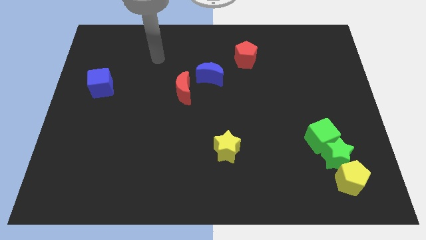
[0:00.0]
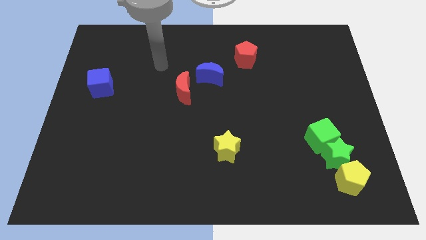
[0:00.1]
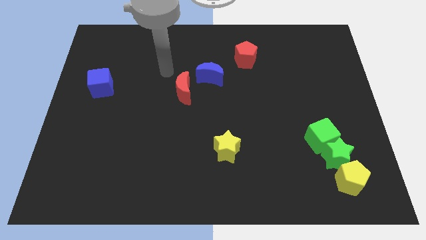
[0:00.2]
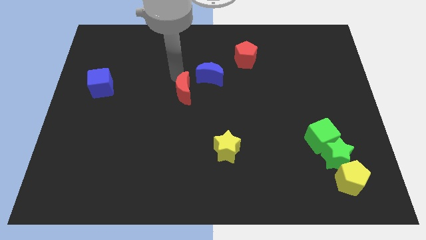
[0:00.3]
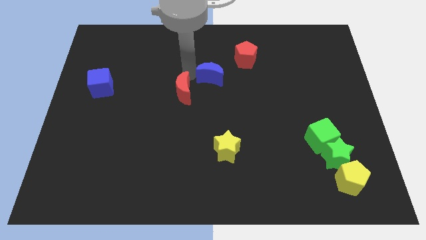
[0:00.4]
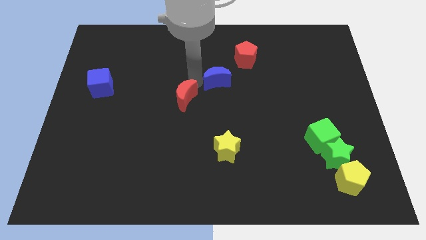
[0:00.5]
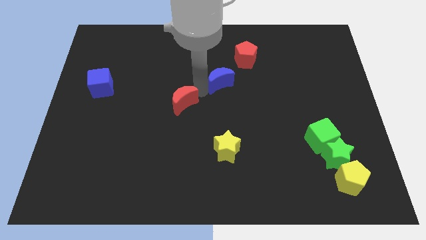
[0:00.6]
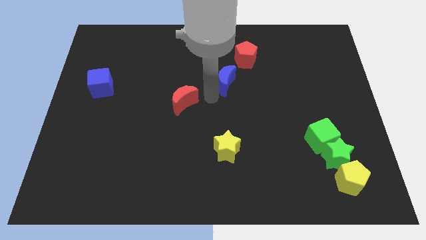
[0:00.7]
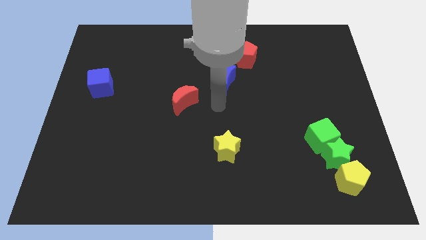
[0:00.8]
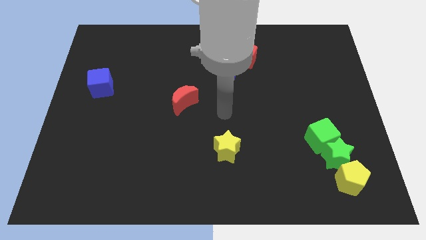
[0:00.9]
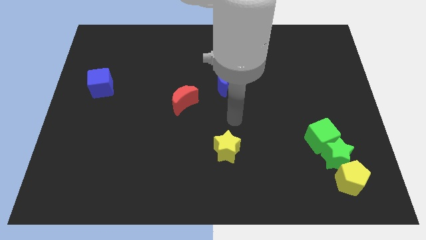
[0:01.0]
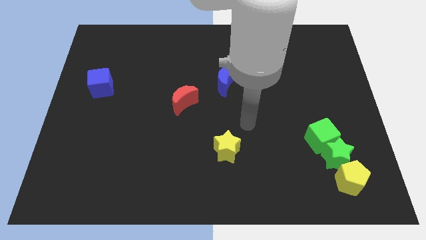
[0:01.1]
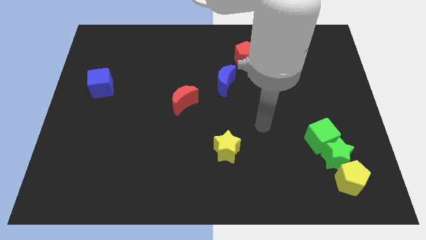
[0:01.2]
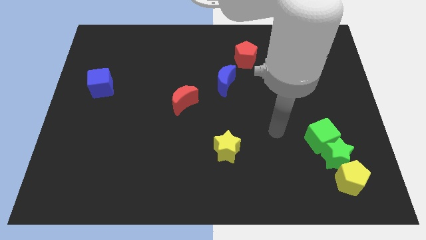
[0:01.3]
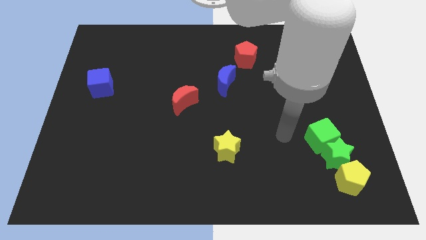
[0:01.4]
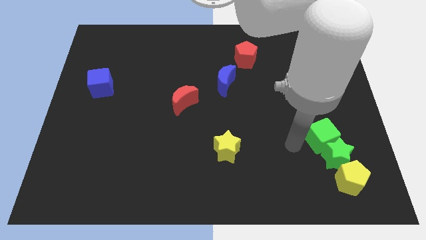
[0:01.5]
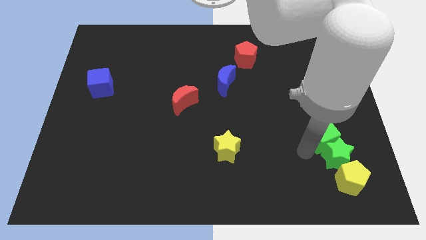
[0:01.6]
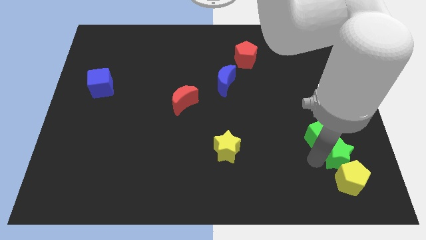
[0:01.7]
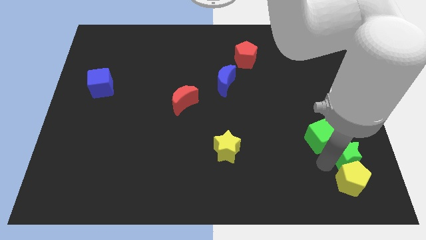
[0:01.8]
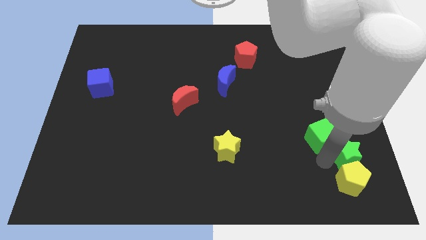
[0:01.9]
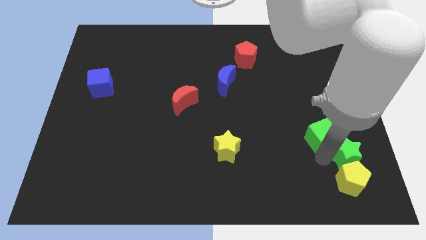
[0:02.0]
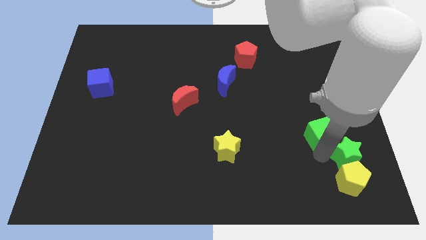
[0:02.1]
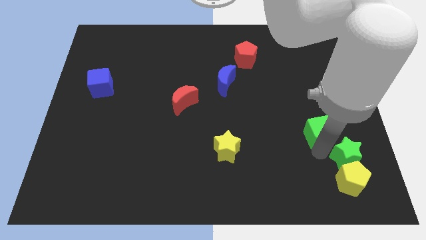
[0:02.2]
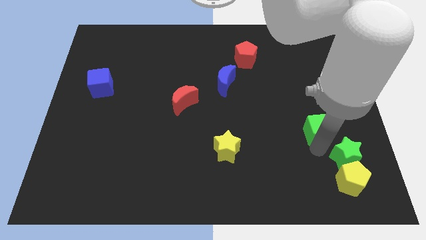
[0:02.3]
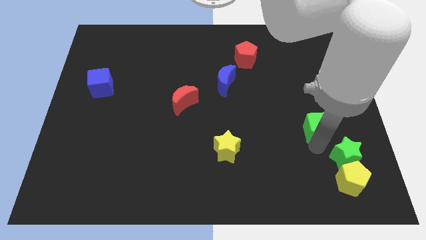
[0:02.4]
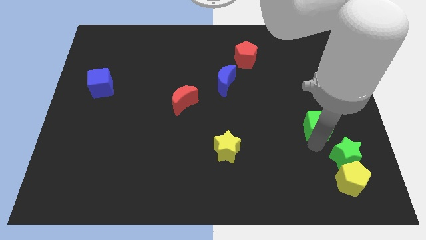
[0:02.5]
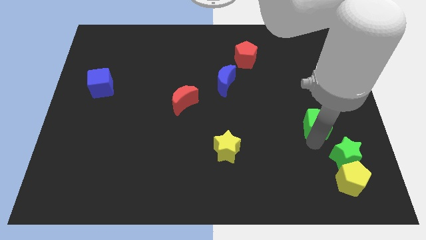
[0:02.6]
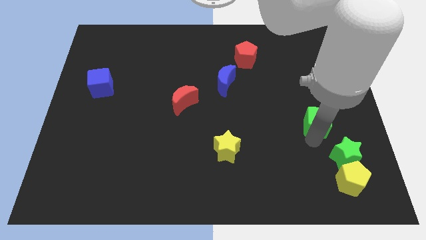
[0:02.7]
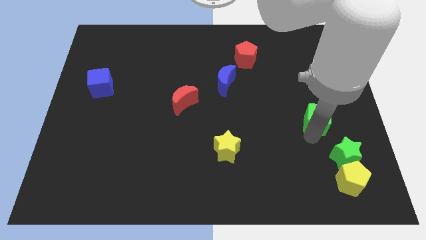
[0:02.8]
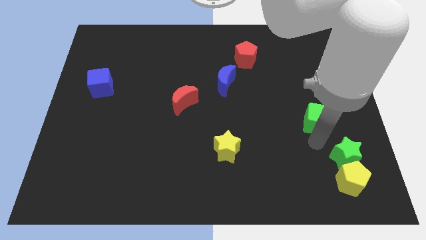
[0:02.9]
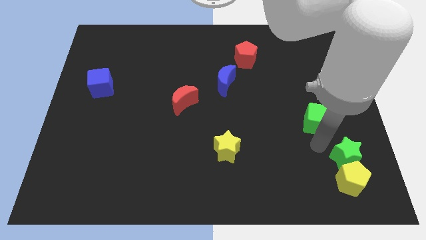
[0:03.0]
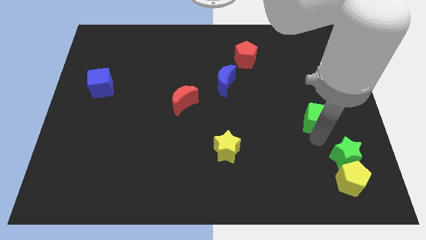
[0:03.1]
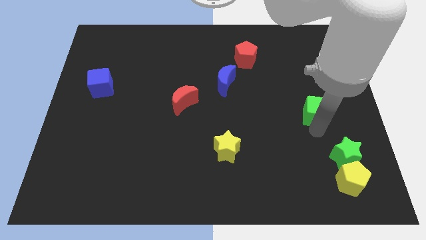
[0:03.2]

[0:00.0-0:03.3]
push the green cube somewhat upwards

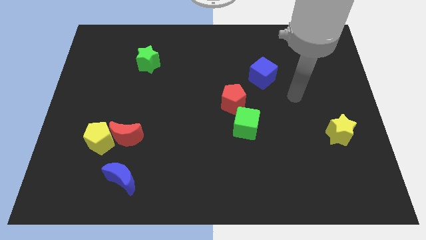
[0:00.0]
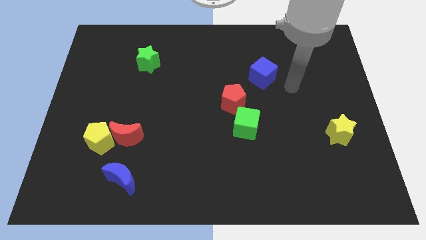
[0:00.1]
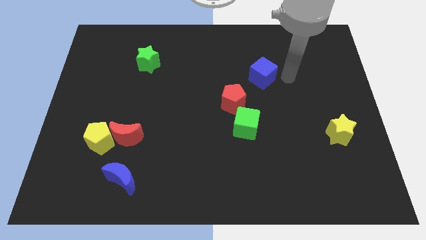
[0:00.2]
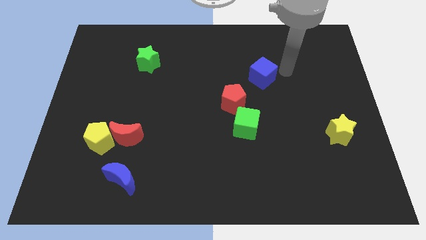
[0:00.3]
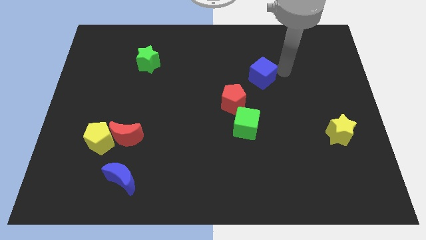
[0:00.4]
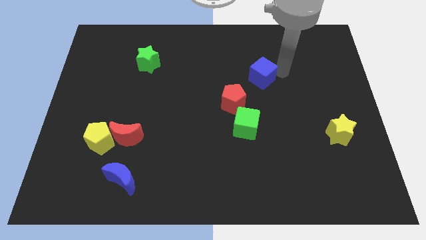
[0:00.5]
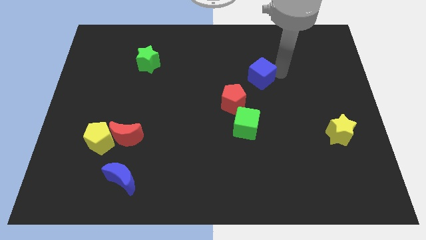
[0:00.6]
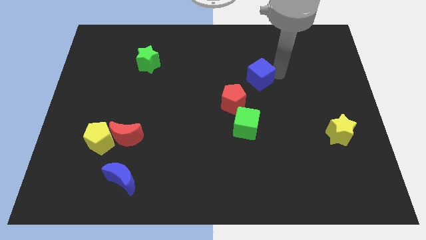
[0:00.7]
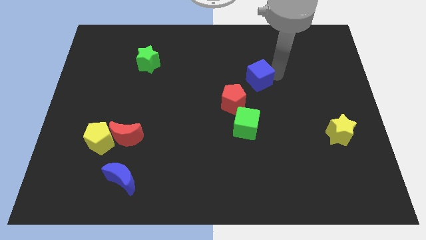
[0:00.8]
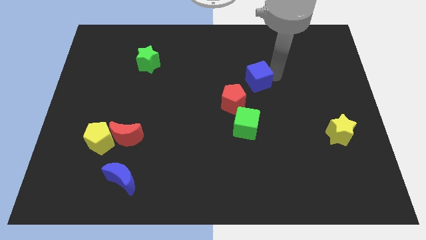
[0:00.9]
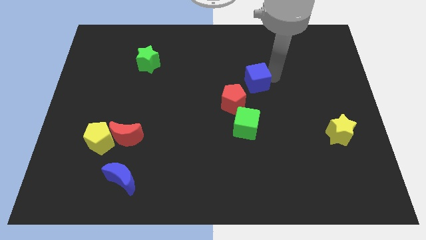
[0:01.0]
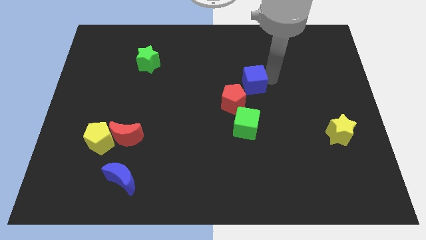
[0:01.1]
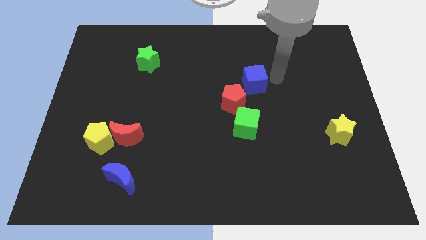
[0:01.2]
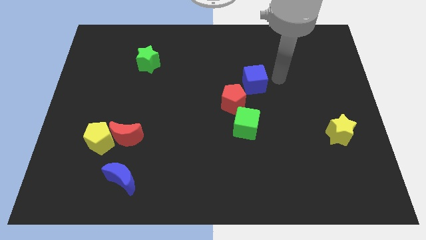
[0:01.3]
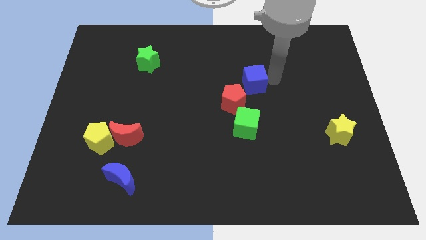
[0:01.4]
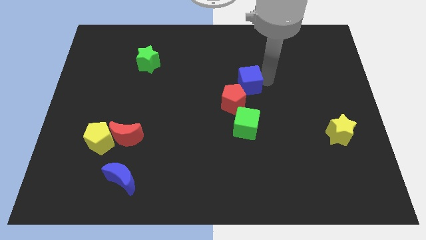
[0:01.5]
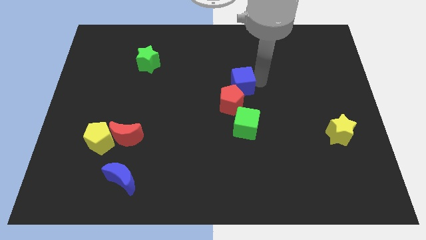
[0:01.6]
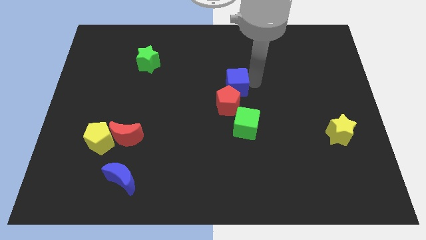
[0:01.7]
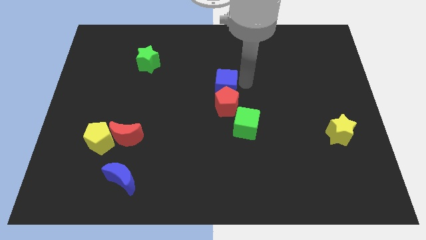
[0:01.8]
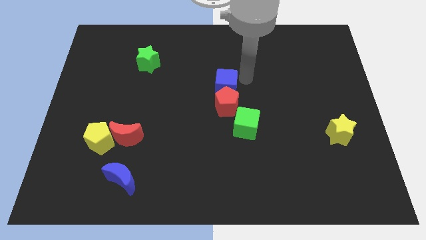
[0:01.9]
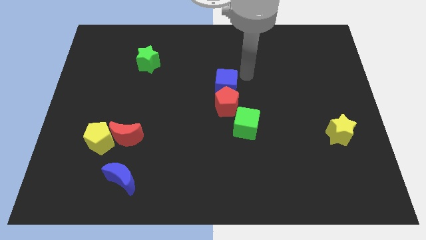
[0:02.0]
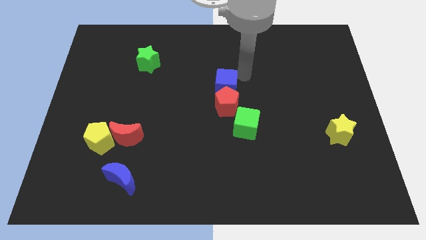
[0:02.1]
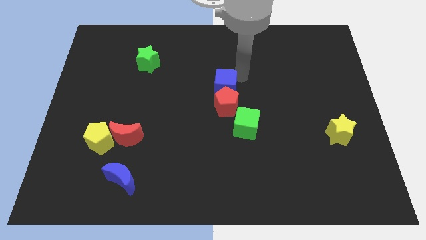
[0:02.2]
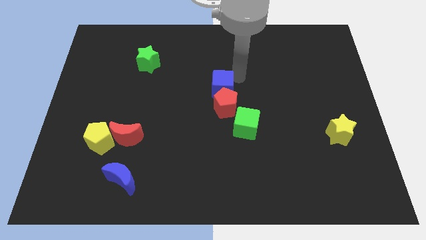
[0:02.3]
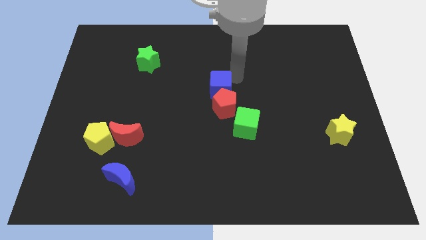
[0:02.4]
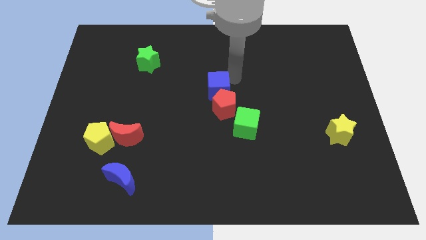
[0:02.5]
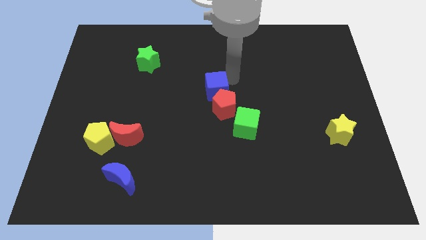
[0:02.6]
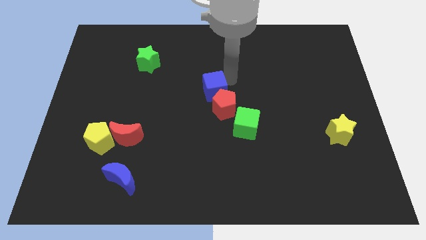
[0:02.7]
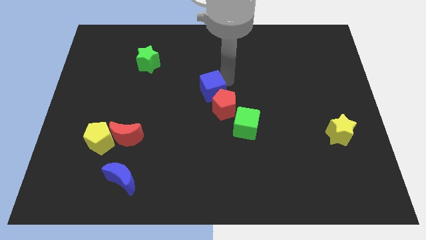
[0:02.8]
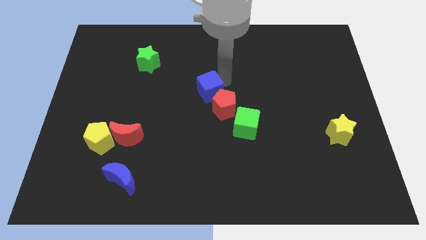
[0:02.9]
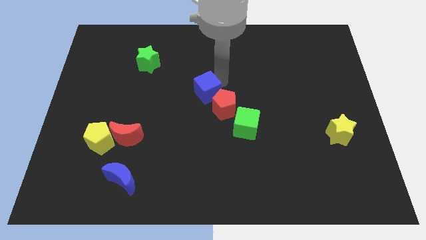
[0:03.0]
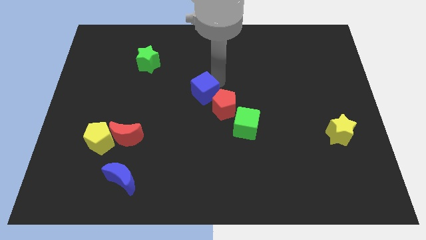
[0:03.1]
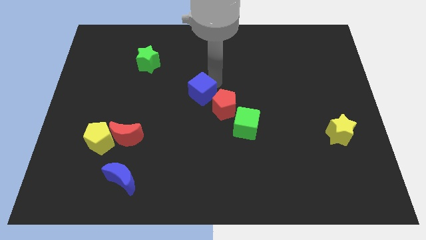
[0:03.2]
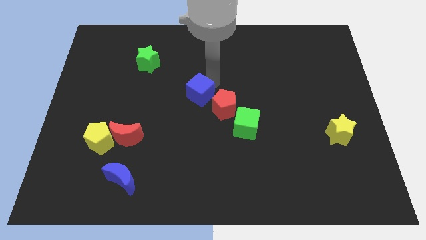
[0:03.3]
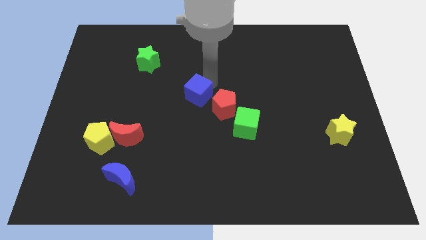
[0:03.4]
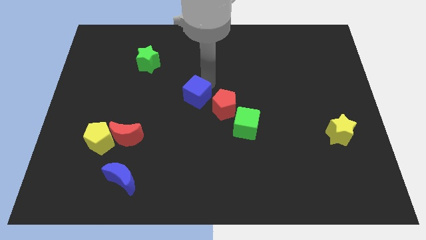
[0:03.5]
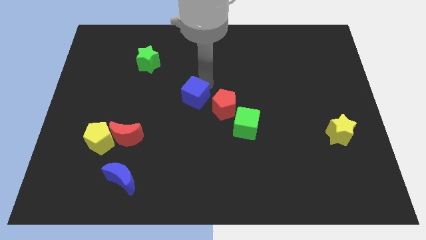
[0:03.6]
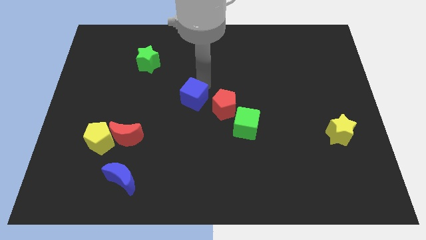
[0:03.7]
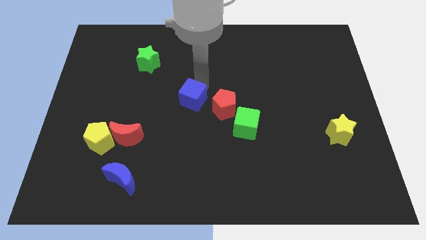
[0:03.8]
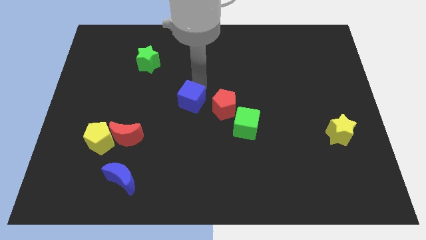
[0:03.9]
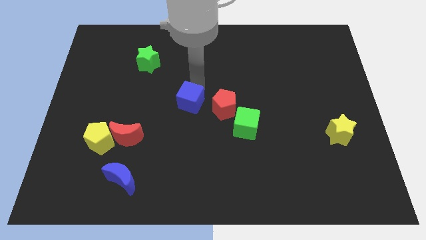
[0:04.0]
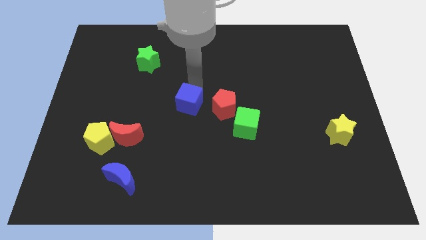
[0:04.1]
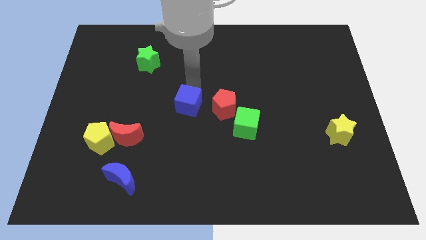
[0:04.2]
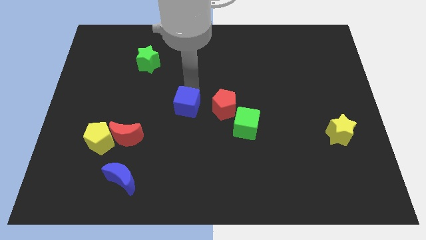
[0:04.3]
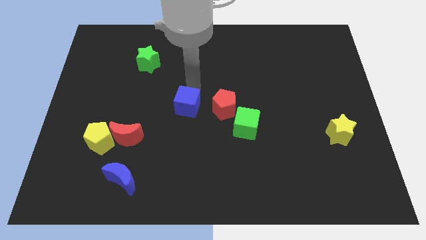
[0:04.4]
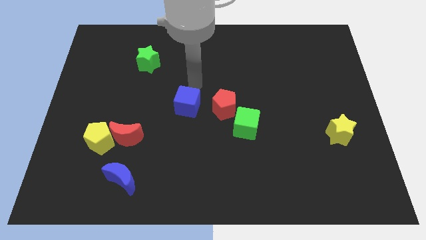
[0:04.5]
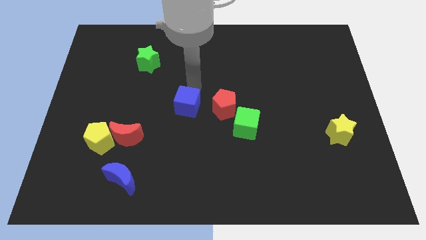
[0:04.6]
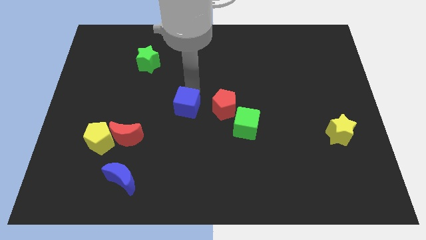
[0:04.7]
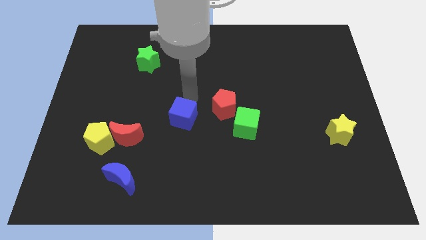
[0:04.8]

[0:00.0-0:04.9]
move the blue cube down and then left
